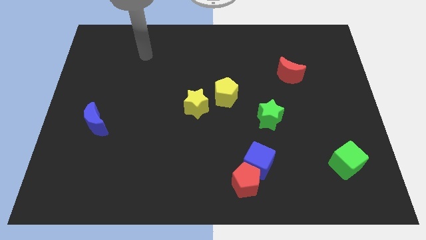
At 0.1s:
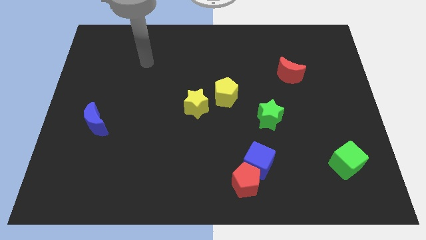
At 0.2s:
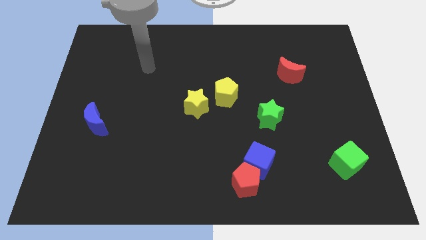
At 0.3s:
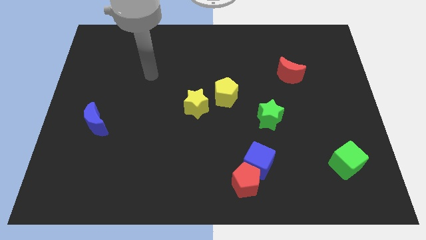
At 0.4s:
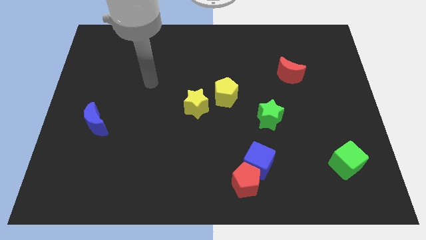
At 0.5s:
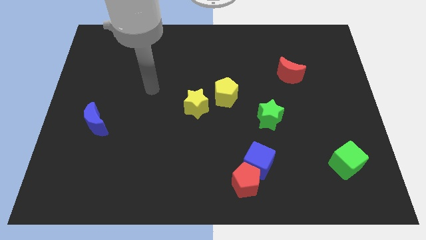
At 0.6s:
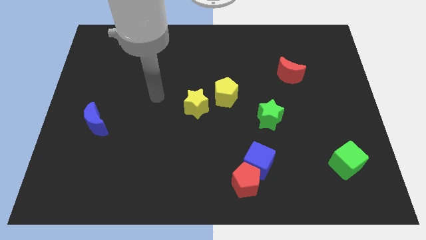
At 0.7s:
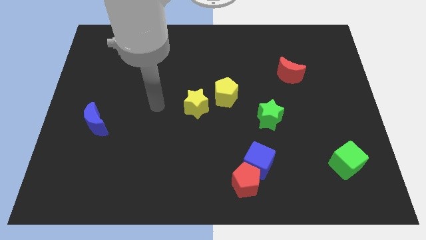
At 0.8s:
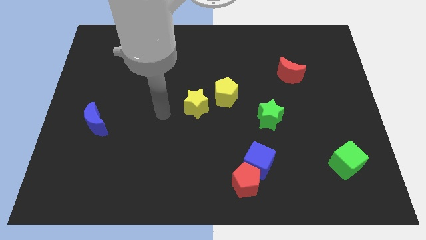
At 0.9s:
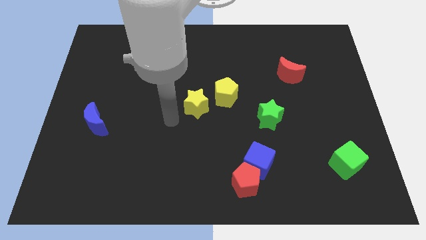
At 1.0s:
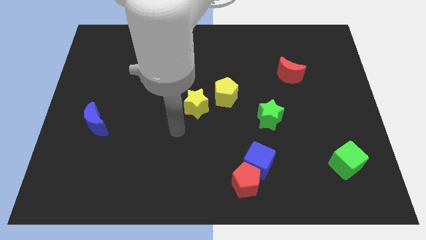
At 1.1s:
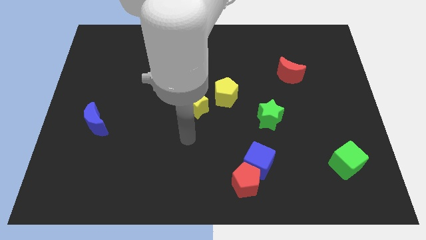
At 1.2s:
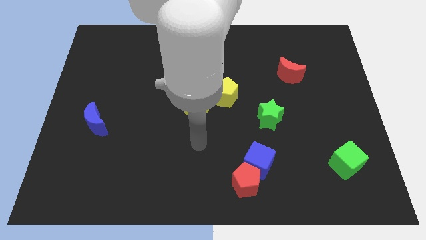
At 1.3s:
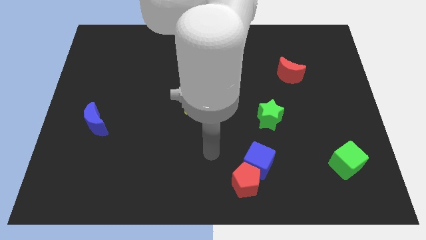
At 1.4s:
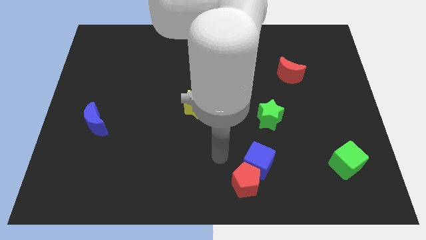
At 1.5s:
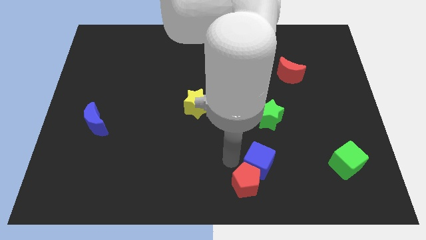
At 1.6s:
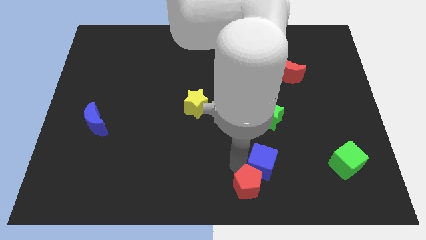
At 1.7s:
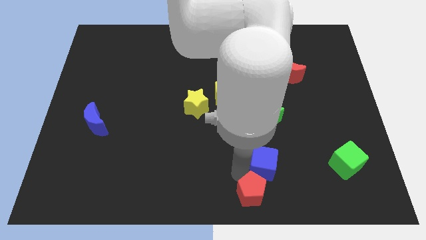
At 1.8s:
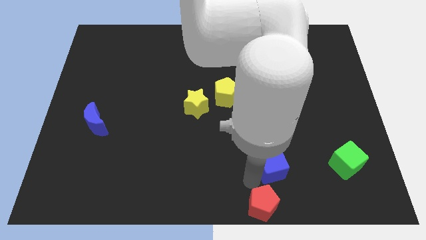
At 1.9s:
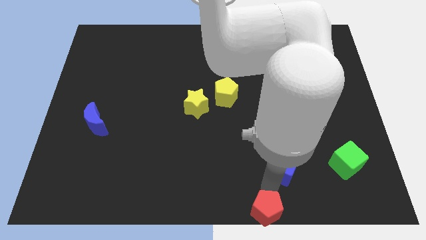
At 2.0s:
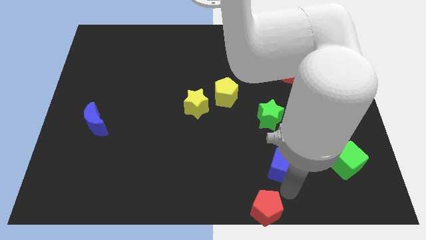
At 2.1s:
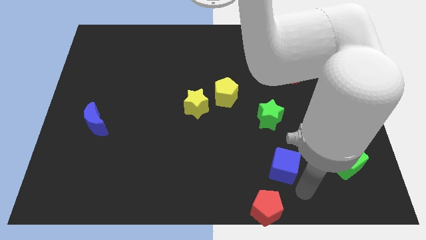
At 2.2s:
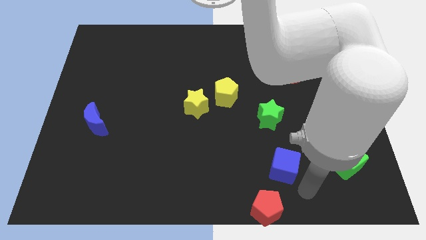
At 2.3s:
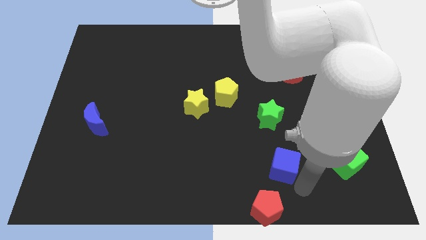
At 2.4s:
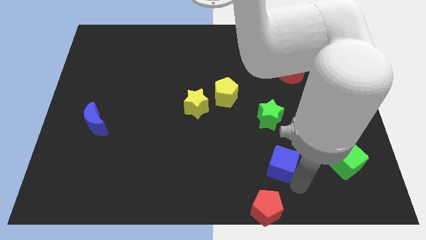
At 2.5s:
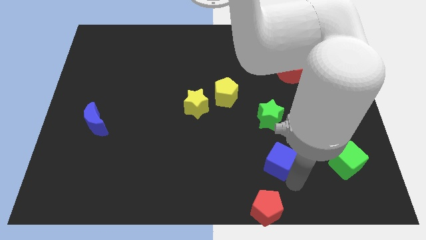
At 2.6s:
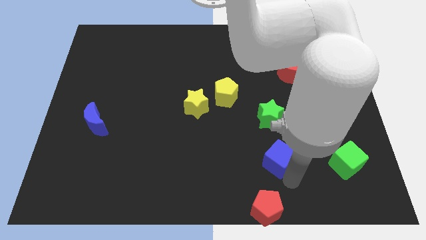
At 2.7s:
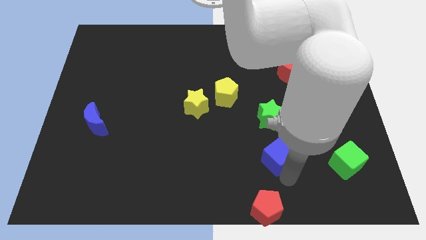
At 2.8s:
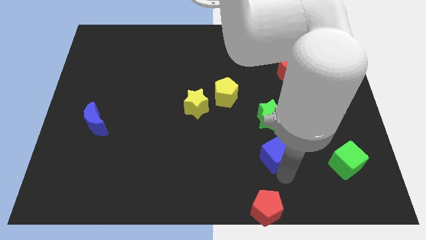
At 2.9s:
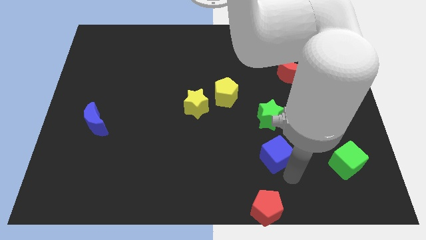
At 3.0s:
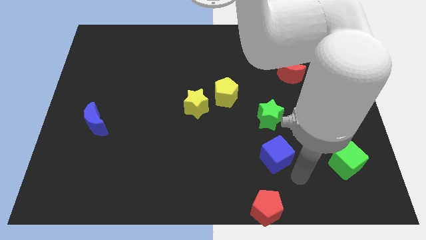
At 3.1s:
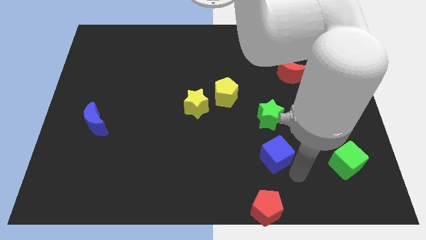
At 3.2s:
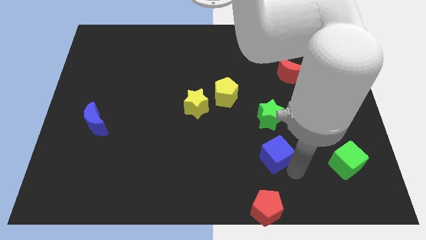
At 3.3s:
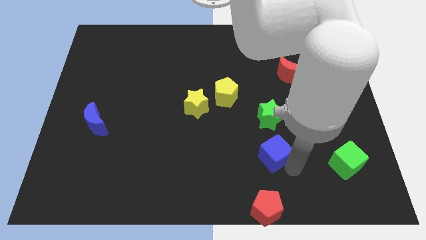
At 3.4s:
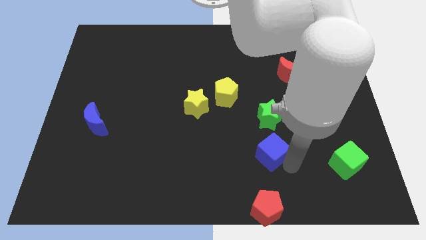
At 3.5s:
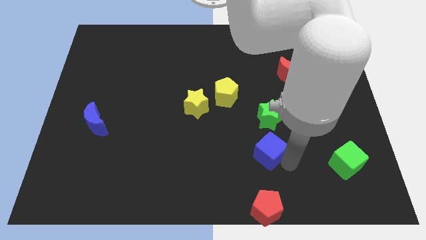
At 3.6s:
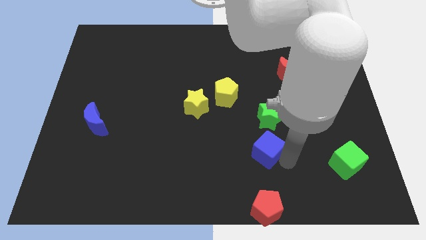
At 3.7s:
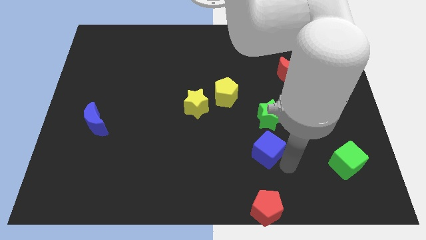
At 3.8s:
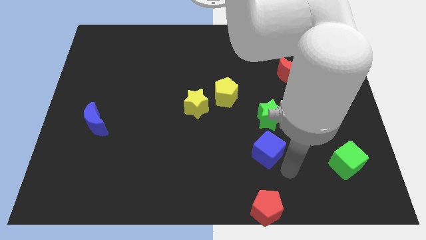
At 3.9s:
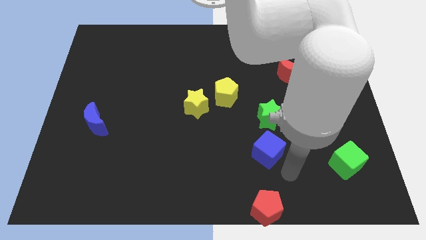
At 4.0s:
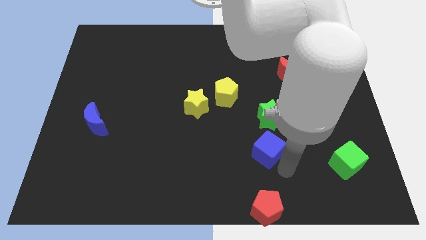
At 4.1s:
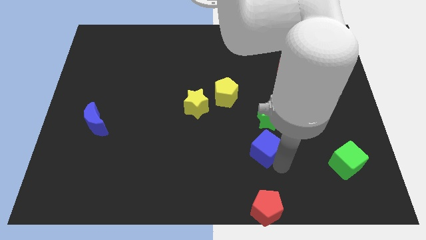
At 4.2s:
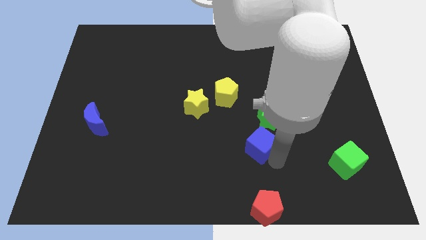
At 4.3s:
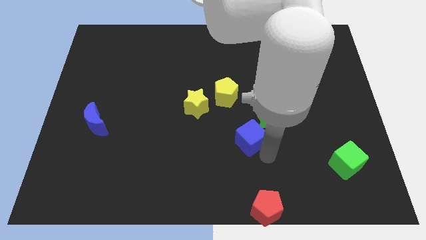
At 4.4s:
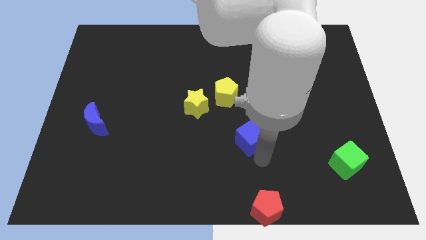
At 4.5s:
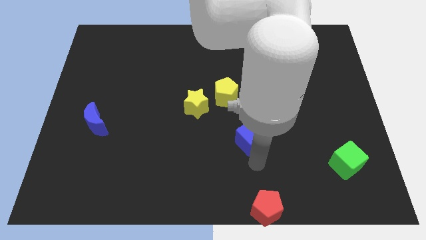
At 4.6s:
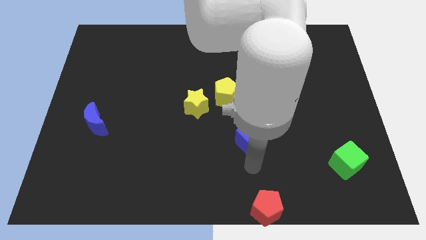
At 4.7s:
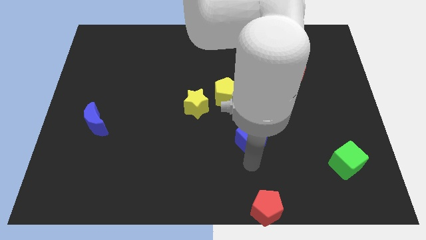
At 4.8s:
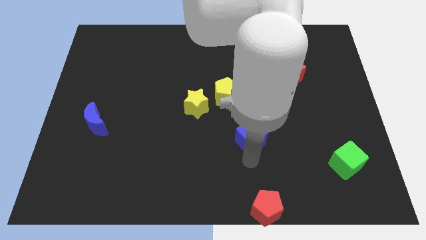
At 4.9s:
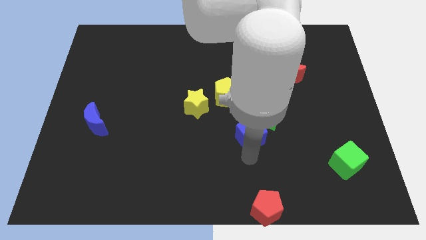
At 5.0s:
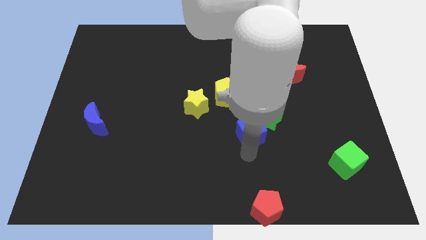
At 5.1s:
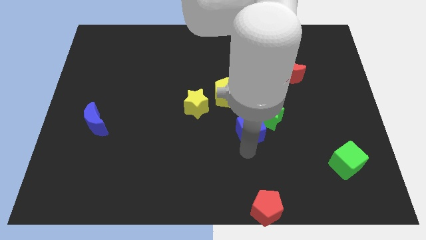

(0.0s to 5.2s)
put the blue cube to the bottom right side of the yellow pentagon

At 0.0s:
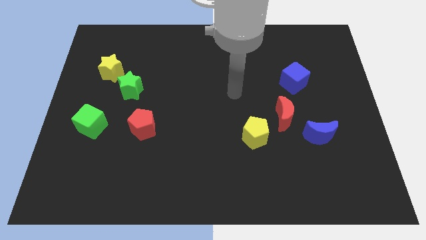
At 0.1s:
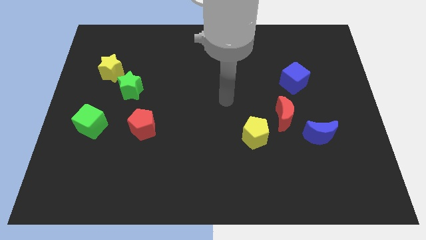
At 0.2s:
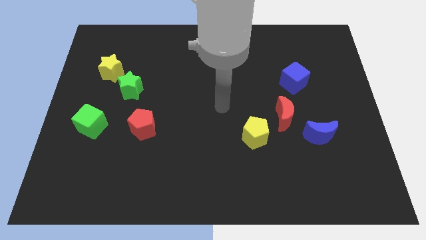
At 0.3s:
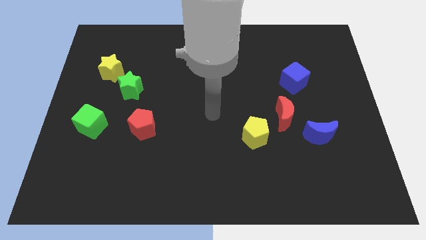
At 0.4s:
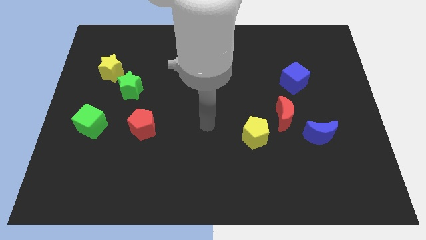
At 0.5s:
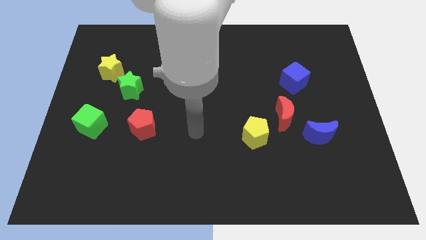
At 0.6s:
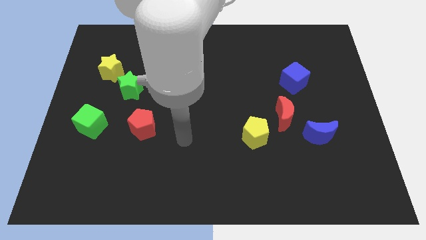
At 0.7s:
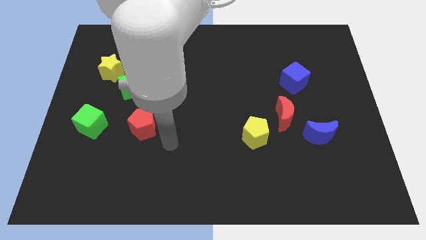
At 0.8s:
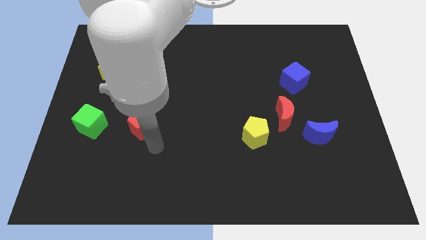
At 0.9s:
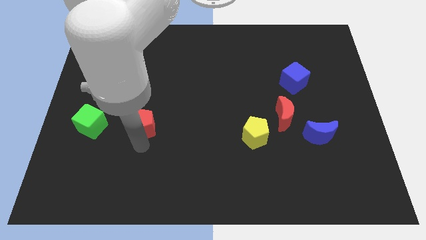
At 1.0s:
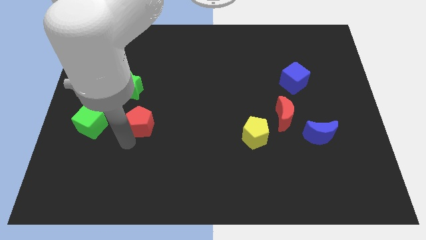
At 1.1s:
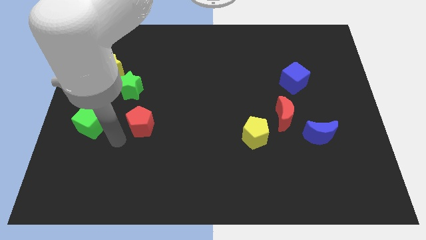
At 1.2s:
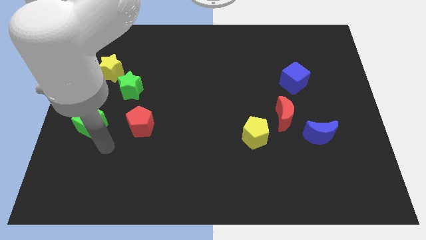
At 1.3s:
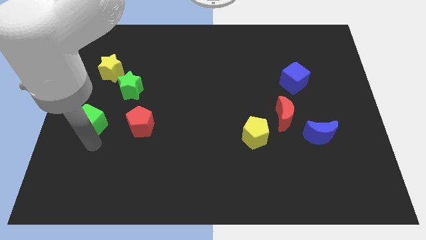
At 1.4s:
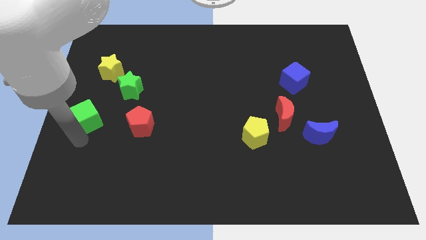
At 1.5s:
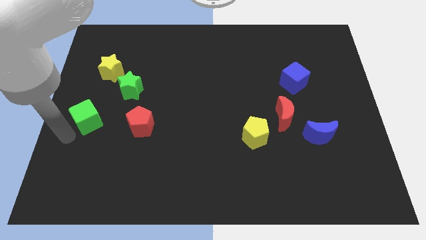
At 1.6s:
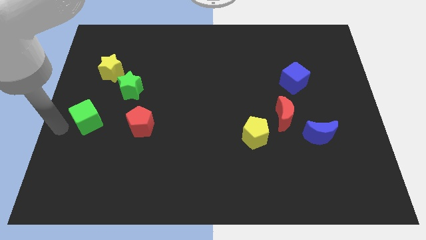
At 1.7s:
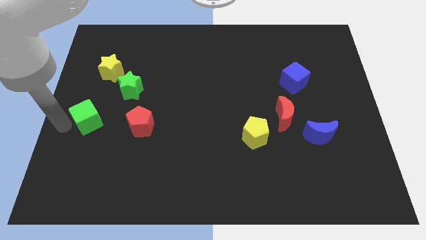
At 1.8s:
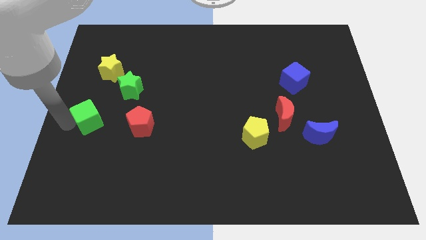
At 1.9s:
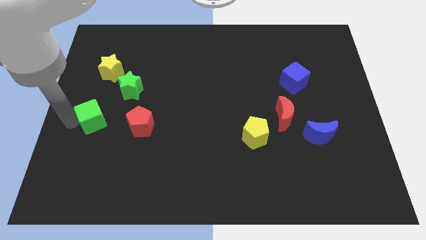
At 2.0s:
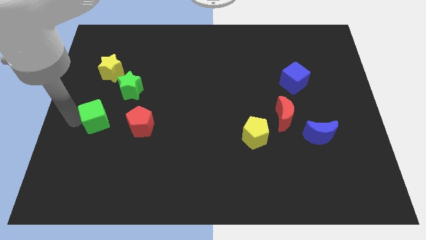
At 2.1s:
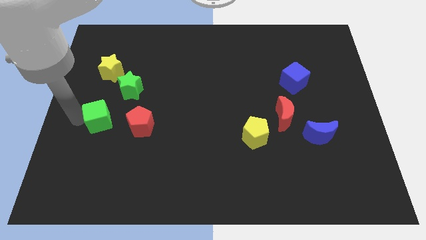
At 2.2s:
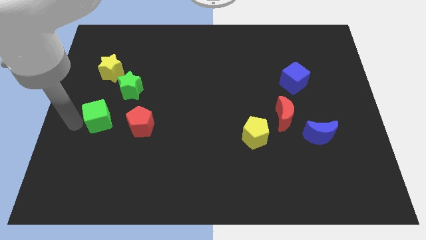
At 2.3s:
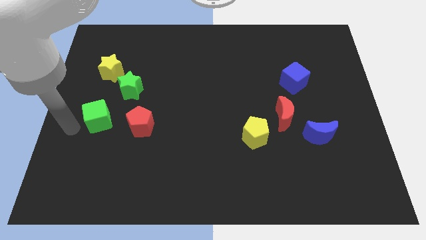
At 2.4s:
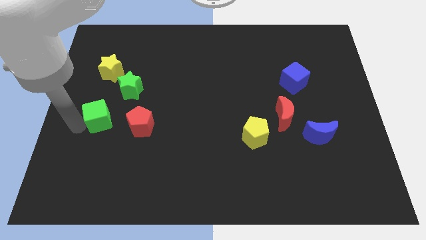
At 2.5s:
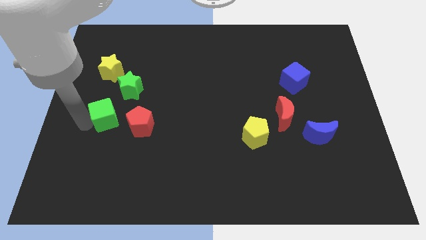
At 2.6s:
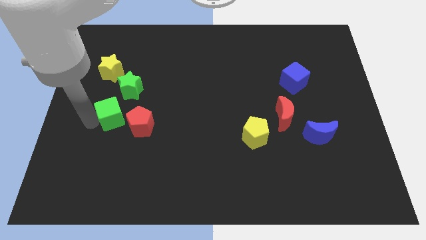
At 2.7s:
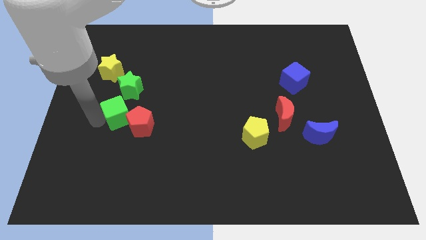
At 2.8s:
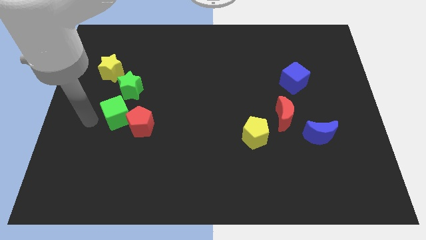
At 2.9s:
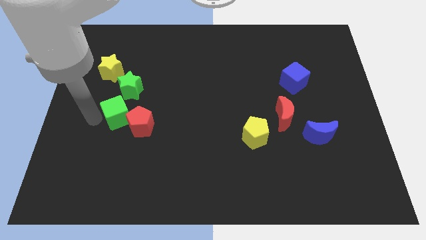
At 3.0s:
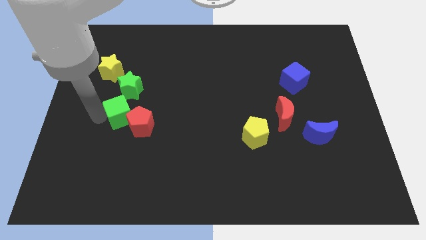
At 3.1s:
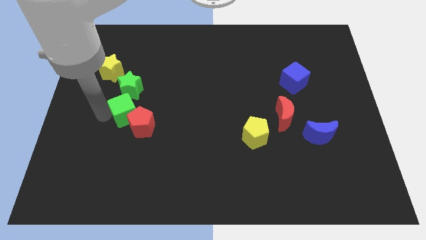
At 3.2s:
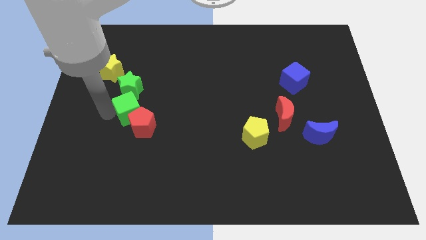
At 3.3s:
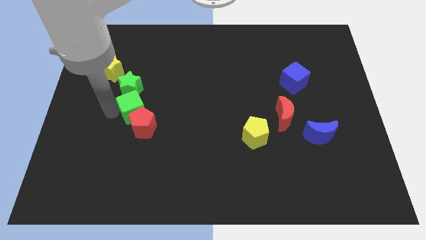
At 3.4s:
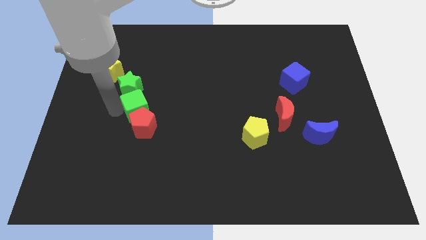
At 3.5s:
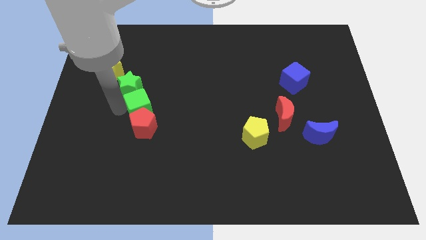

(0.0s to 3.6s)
move the green cube diagonally up and to the right of the red pentagon
